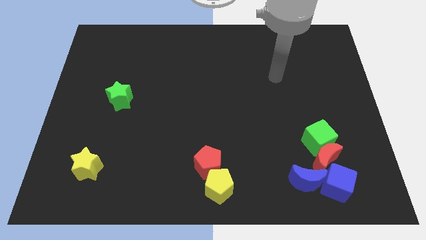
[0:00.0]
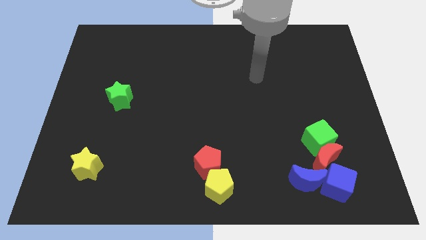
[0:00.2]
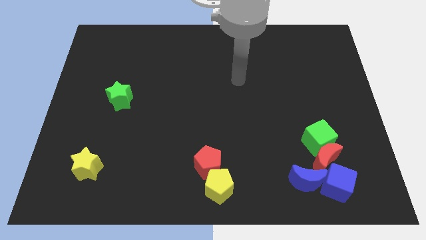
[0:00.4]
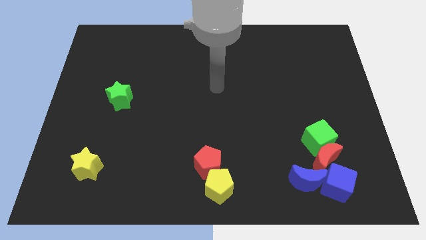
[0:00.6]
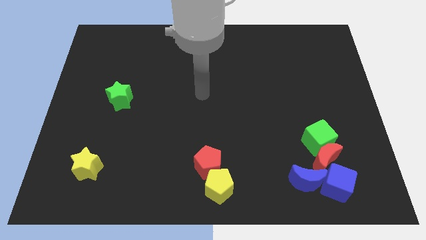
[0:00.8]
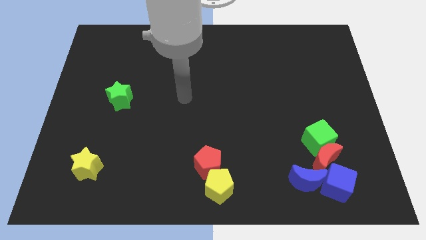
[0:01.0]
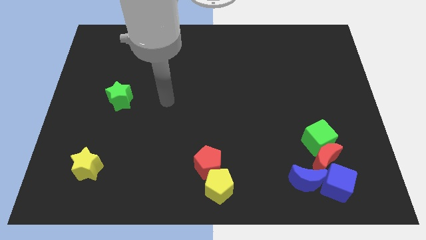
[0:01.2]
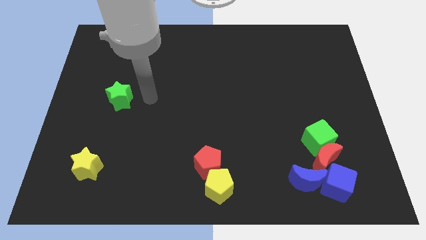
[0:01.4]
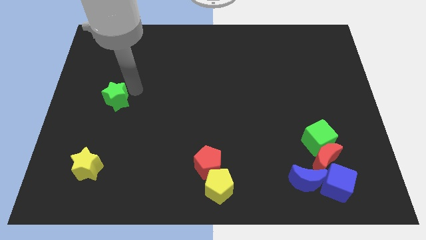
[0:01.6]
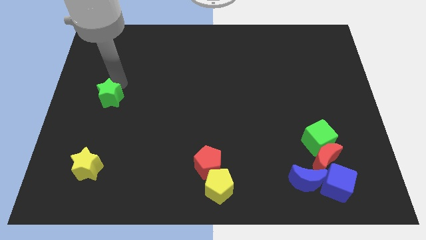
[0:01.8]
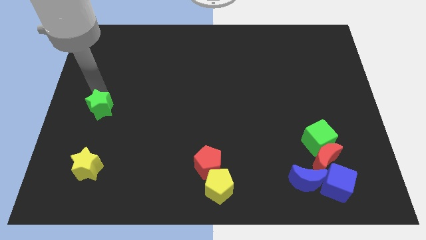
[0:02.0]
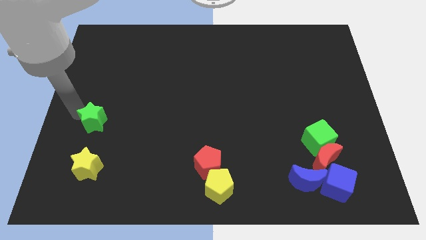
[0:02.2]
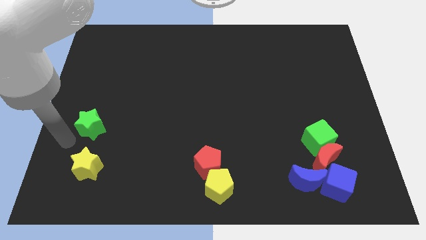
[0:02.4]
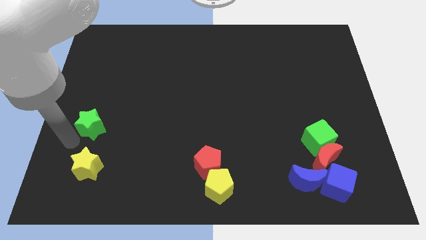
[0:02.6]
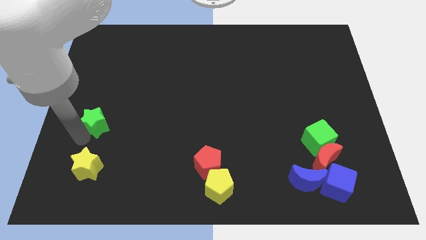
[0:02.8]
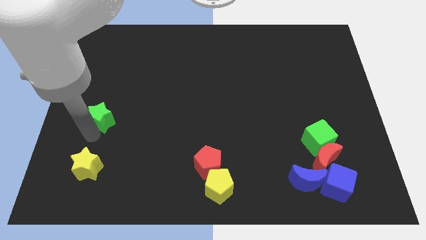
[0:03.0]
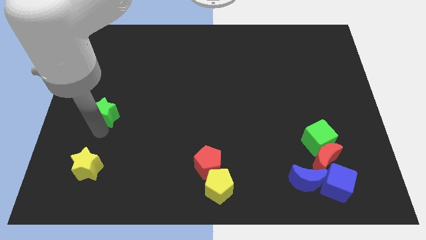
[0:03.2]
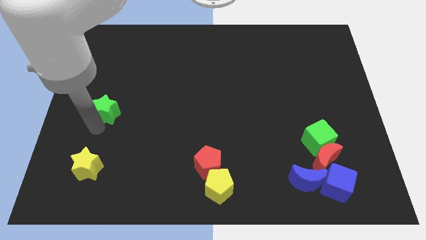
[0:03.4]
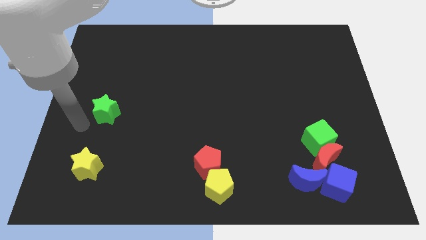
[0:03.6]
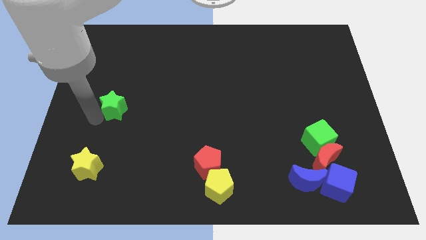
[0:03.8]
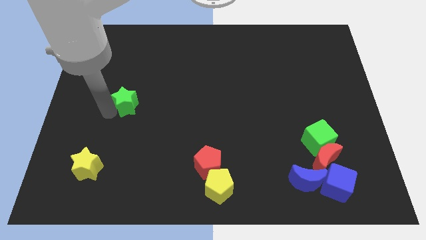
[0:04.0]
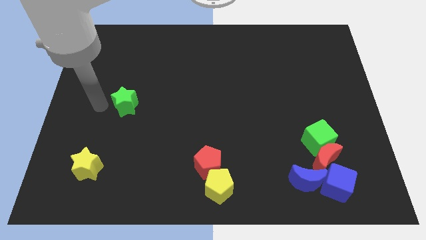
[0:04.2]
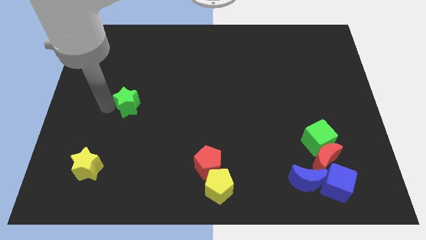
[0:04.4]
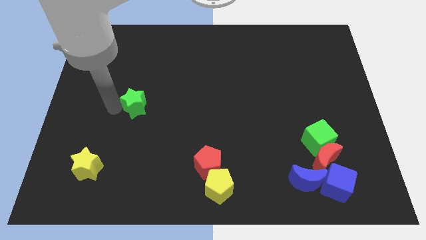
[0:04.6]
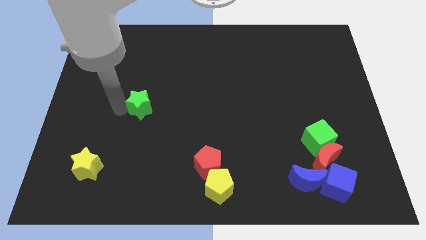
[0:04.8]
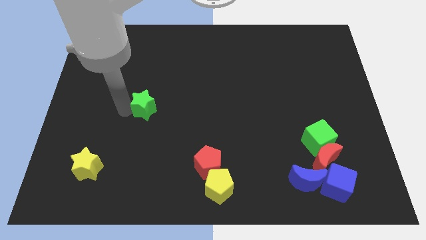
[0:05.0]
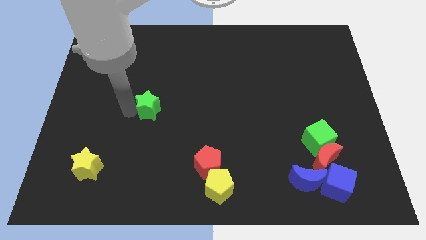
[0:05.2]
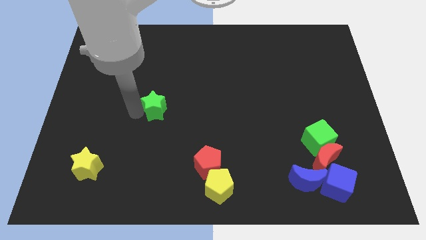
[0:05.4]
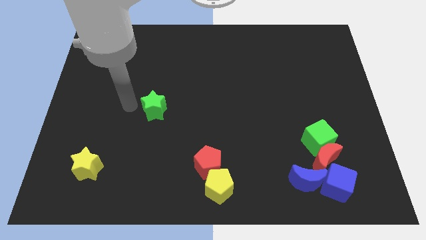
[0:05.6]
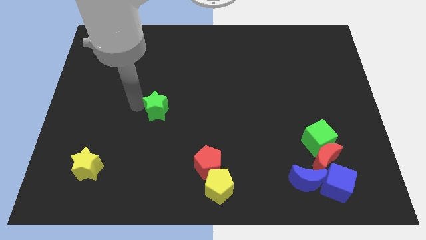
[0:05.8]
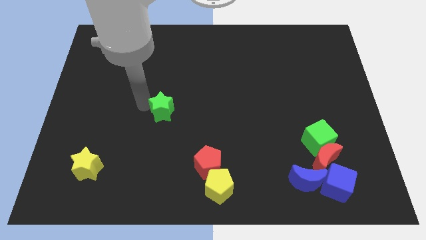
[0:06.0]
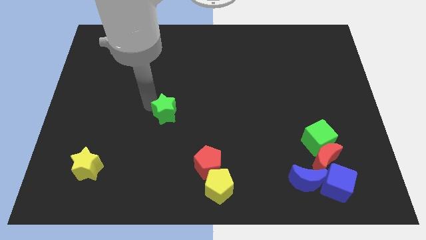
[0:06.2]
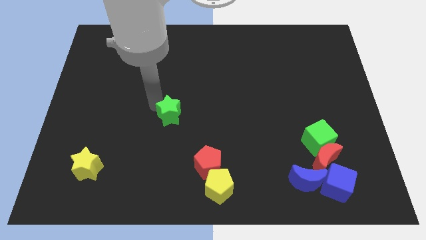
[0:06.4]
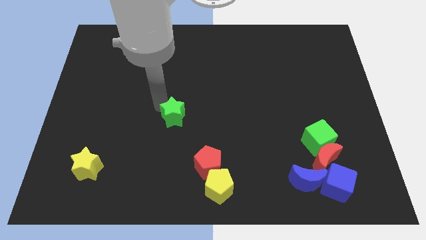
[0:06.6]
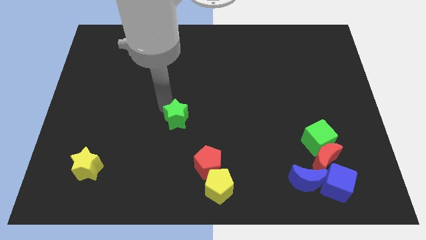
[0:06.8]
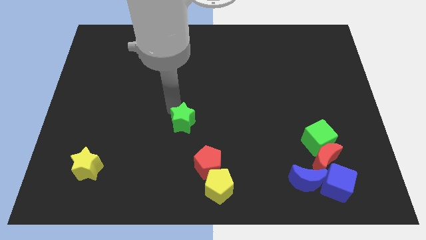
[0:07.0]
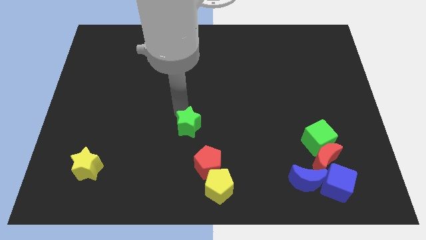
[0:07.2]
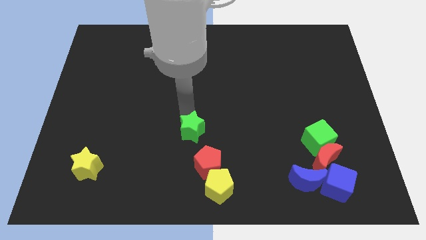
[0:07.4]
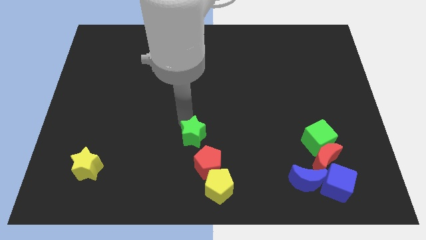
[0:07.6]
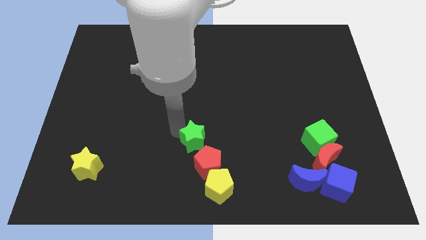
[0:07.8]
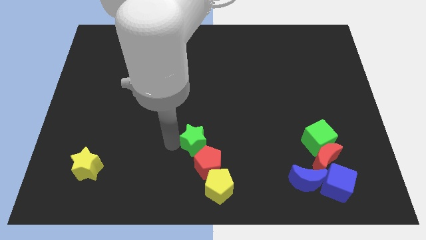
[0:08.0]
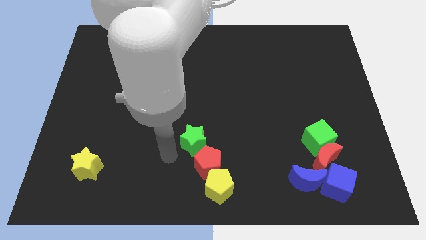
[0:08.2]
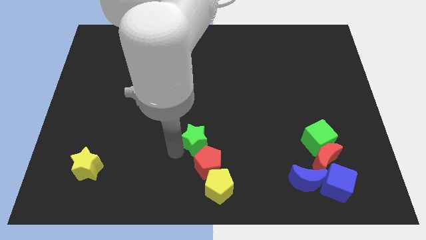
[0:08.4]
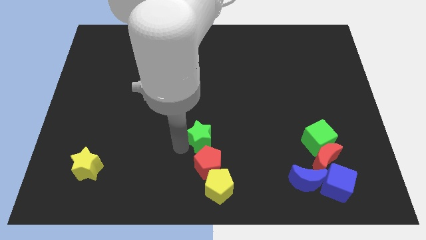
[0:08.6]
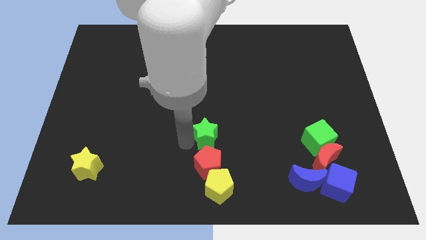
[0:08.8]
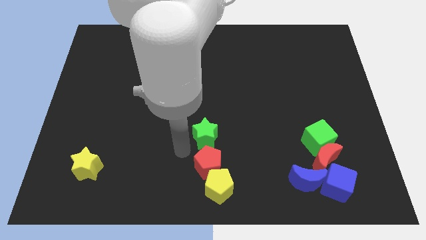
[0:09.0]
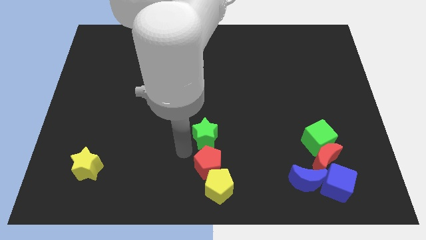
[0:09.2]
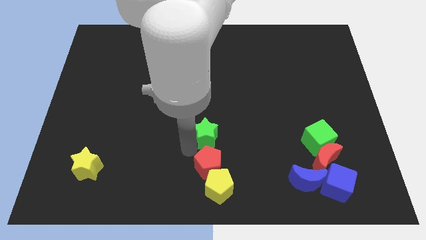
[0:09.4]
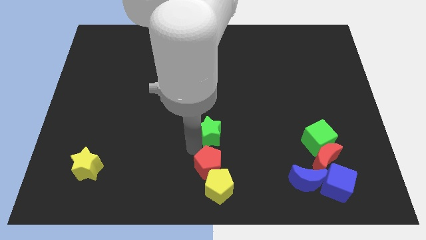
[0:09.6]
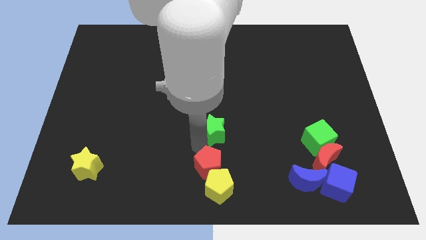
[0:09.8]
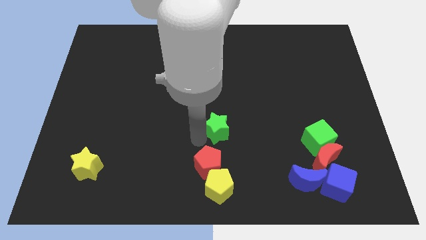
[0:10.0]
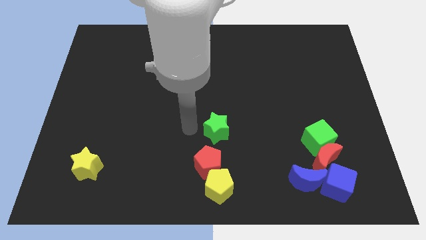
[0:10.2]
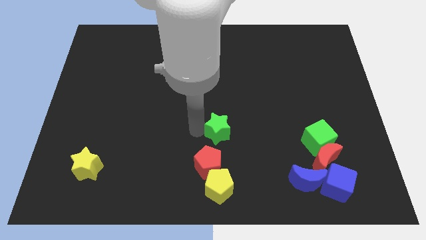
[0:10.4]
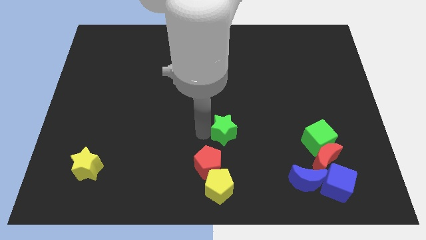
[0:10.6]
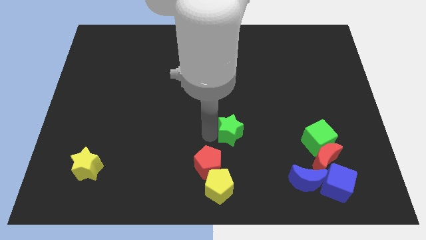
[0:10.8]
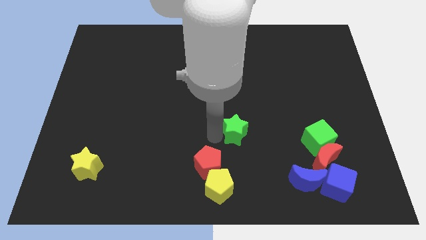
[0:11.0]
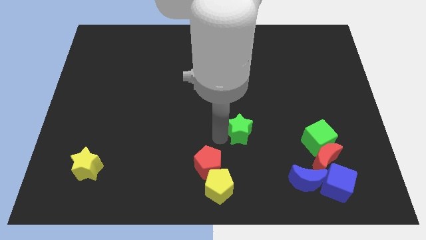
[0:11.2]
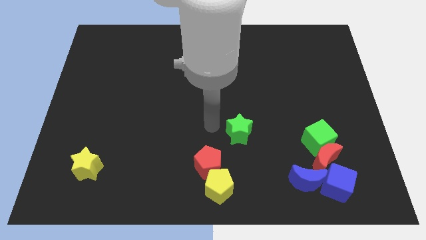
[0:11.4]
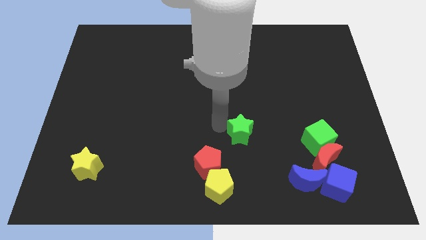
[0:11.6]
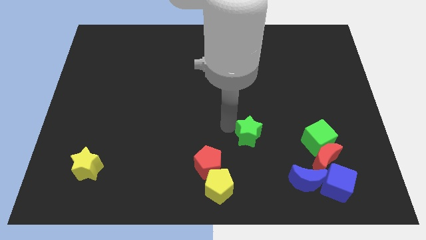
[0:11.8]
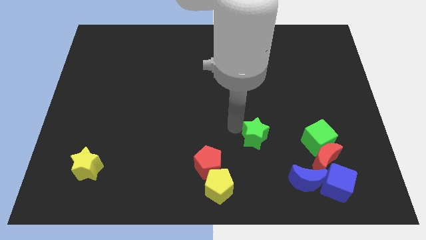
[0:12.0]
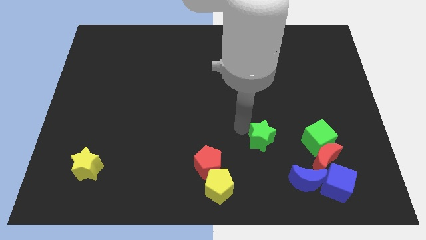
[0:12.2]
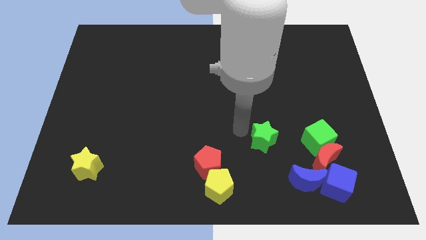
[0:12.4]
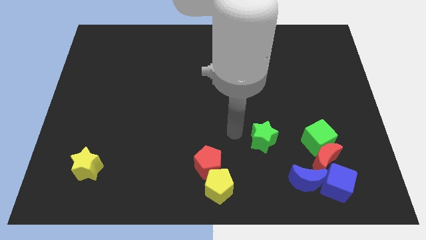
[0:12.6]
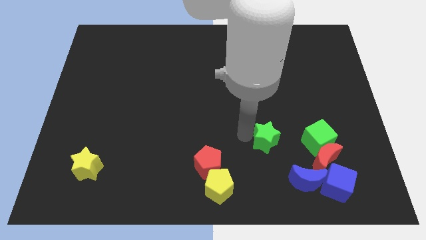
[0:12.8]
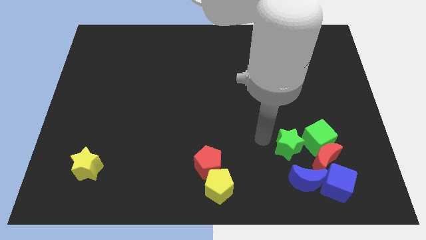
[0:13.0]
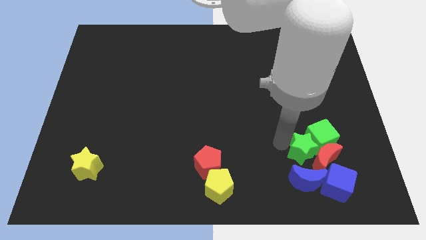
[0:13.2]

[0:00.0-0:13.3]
put the green star close to the red moon
